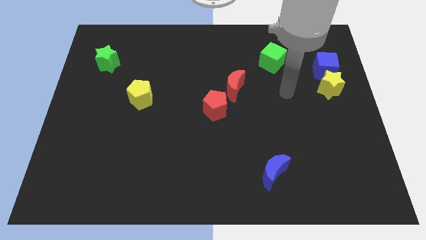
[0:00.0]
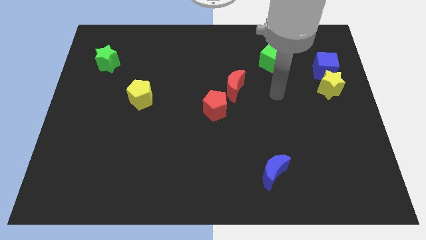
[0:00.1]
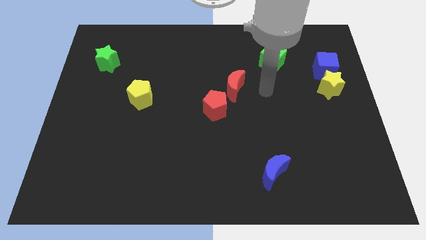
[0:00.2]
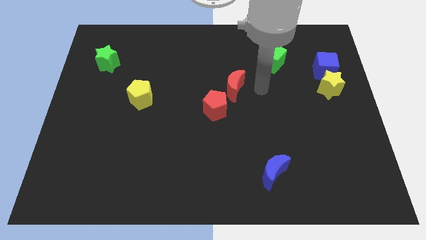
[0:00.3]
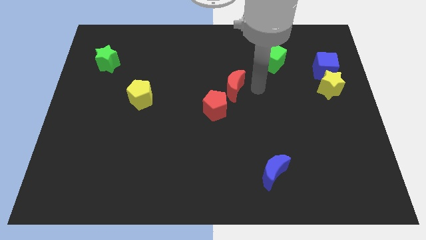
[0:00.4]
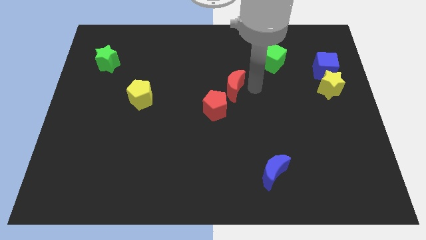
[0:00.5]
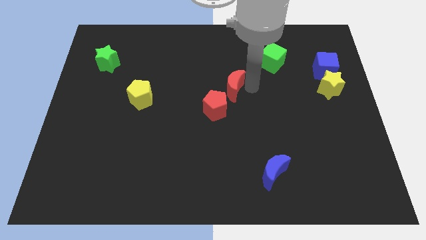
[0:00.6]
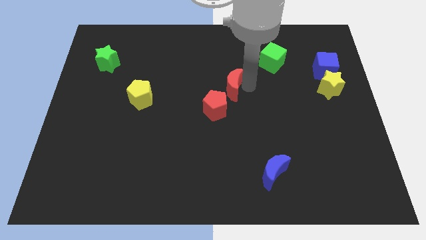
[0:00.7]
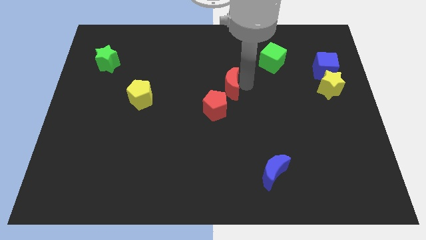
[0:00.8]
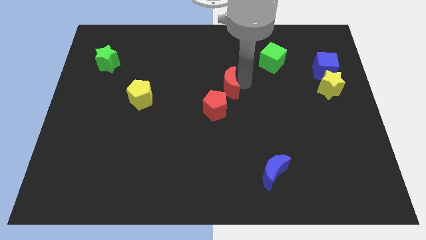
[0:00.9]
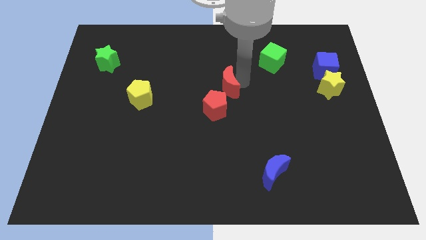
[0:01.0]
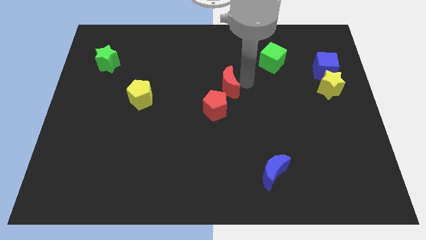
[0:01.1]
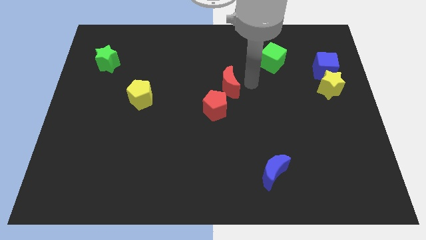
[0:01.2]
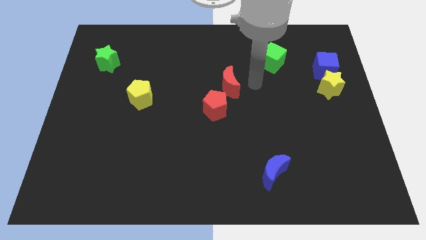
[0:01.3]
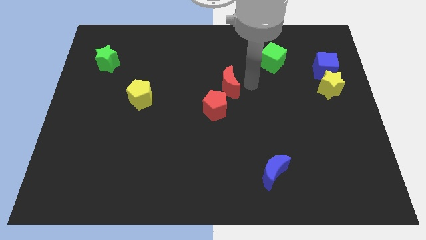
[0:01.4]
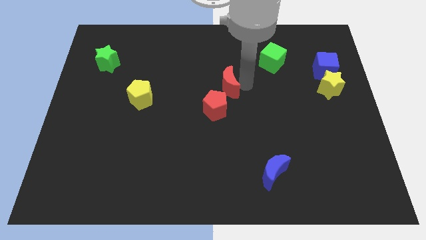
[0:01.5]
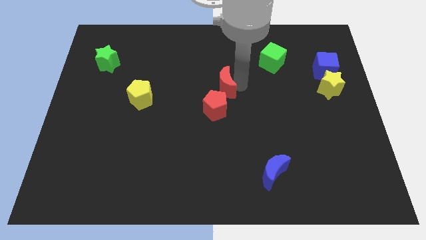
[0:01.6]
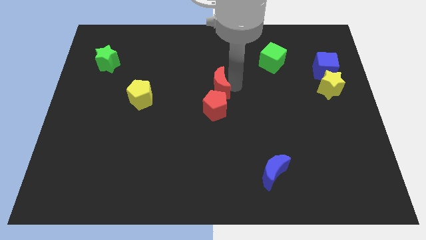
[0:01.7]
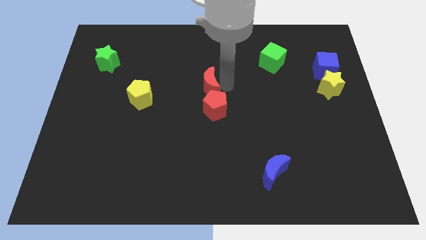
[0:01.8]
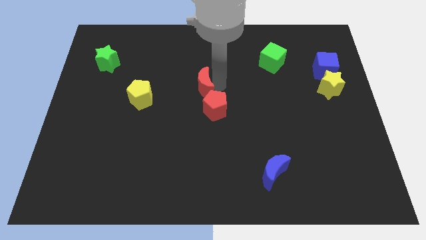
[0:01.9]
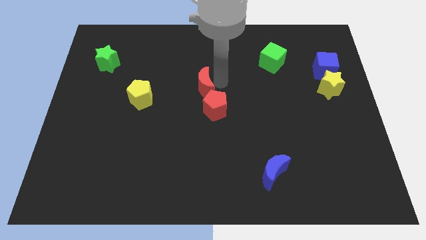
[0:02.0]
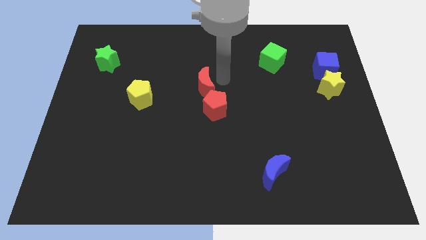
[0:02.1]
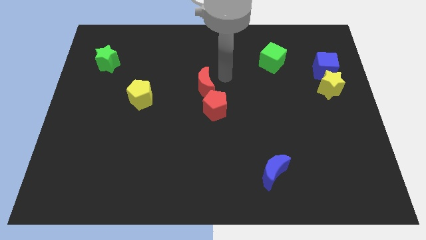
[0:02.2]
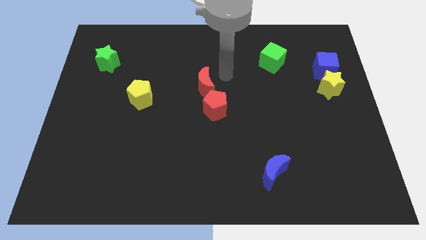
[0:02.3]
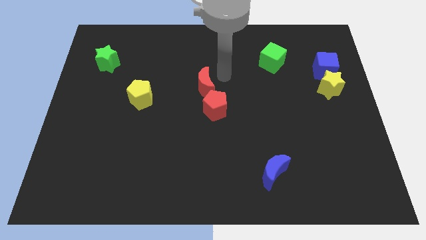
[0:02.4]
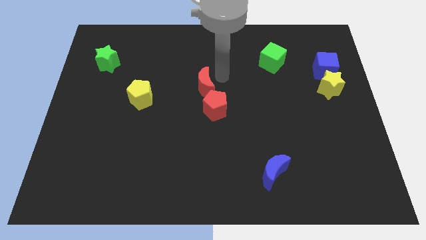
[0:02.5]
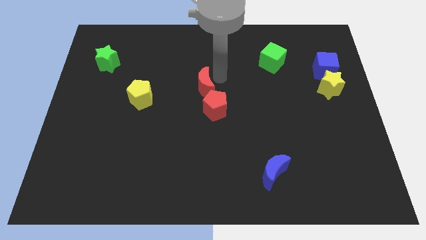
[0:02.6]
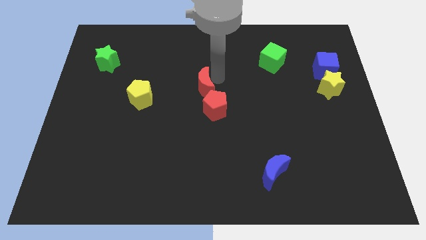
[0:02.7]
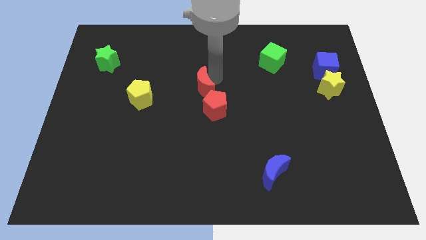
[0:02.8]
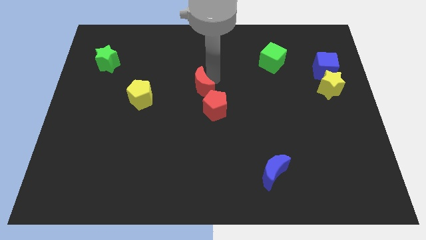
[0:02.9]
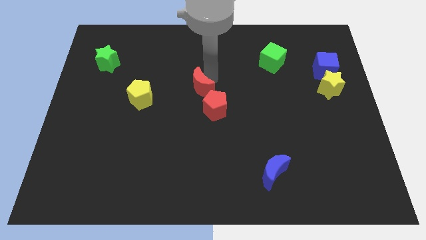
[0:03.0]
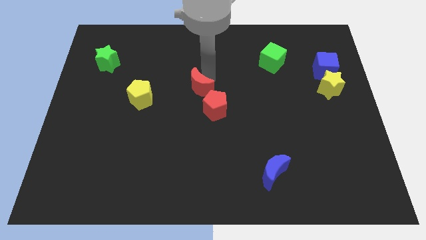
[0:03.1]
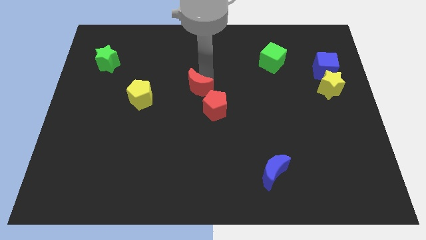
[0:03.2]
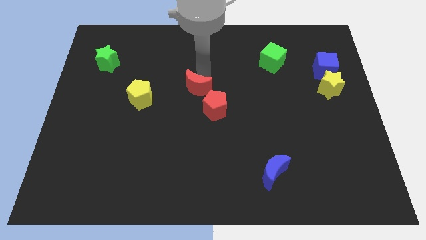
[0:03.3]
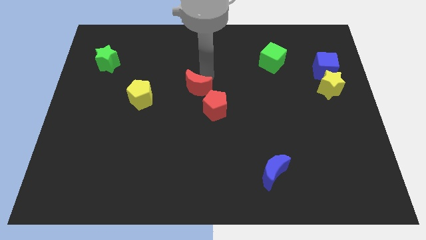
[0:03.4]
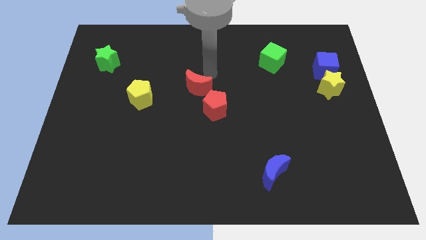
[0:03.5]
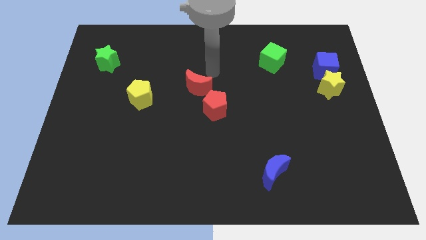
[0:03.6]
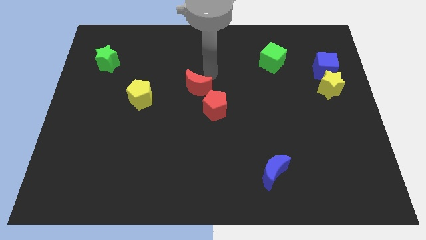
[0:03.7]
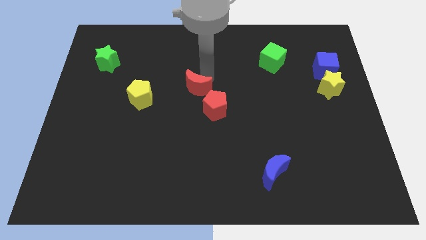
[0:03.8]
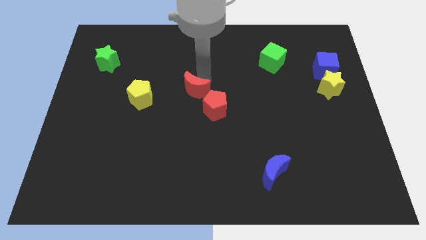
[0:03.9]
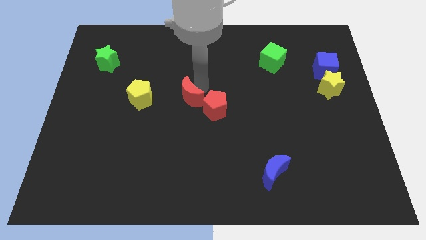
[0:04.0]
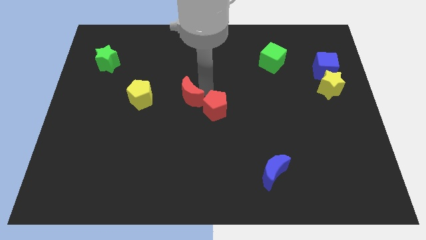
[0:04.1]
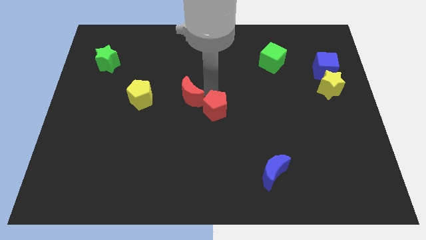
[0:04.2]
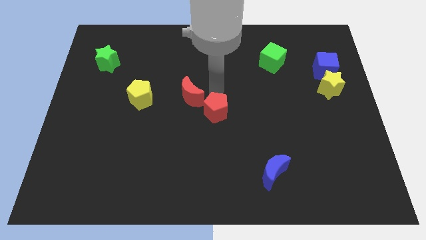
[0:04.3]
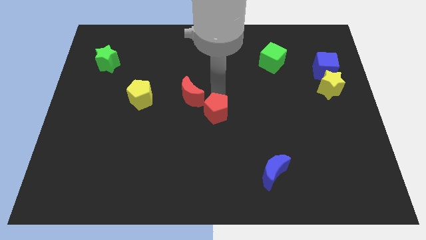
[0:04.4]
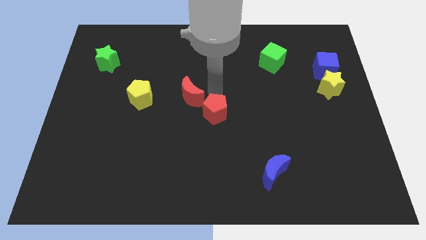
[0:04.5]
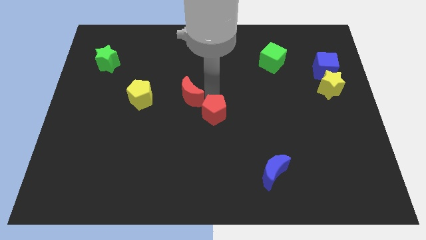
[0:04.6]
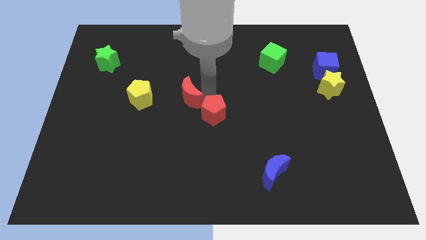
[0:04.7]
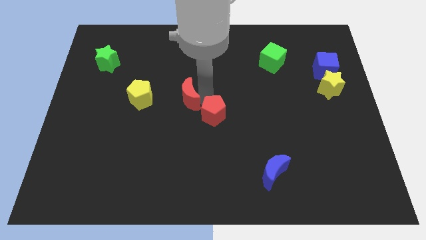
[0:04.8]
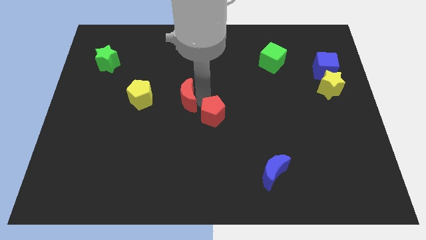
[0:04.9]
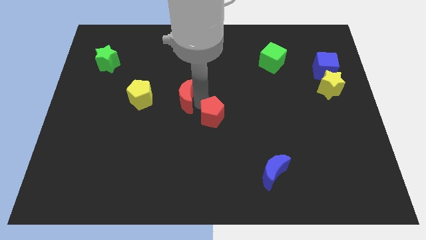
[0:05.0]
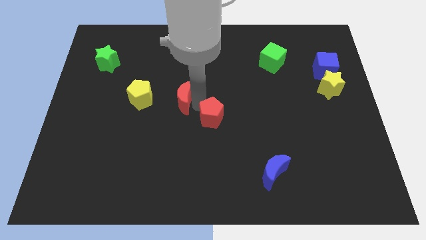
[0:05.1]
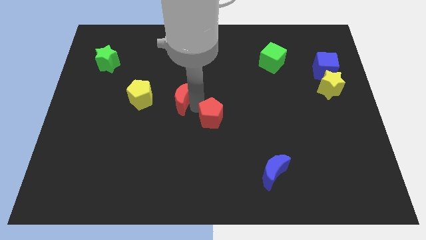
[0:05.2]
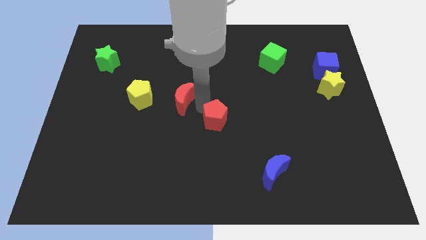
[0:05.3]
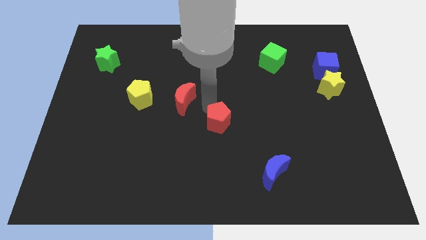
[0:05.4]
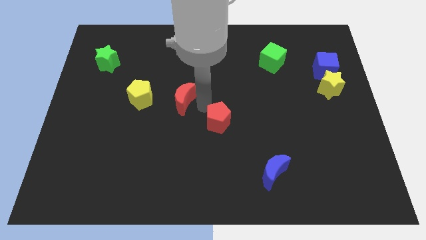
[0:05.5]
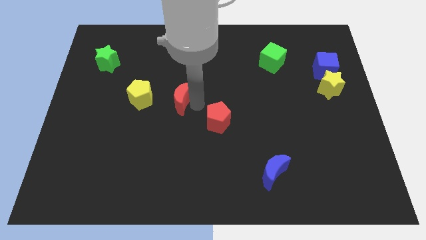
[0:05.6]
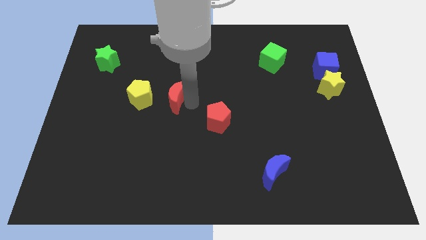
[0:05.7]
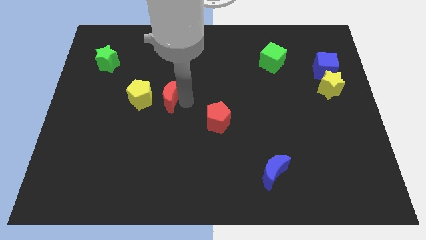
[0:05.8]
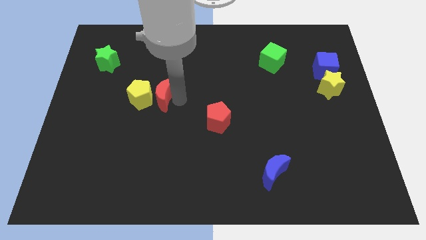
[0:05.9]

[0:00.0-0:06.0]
put the red moon to the yellow pentagon

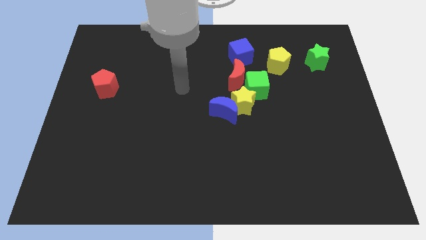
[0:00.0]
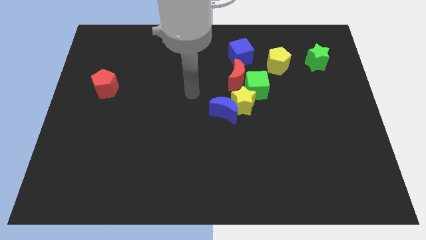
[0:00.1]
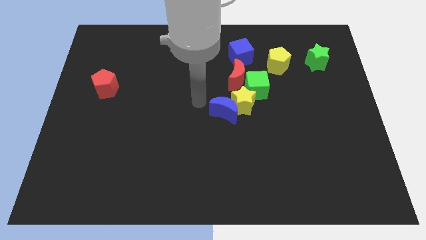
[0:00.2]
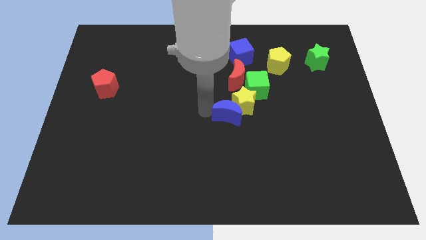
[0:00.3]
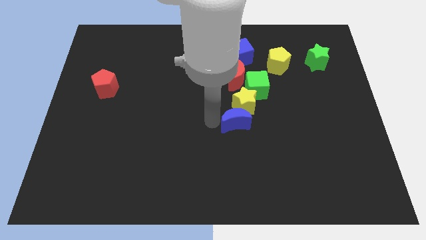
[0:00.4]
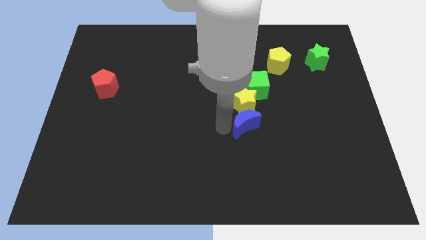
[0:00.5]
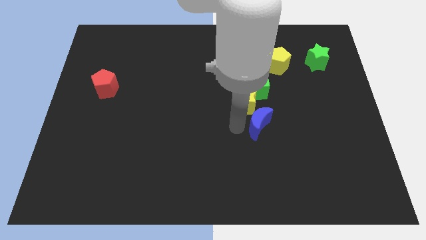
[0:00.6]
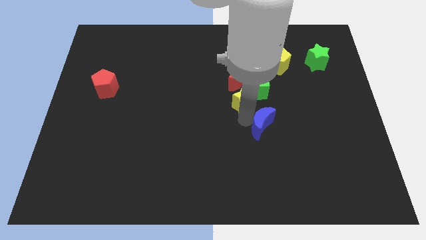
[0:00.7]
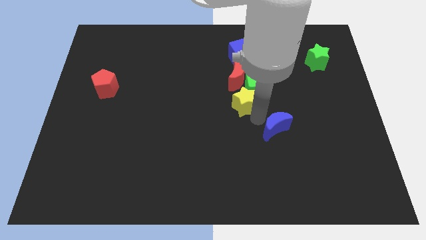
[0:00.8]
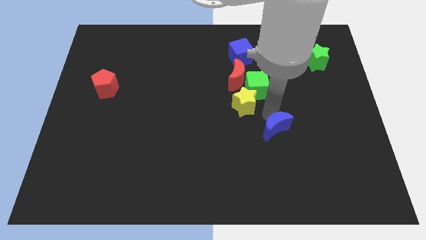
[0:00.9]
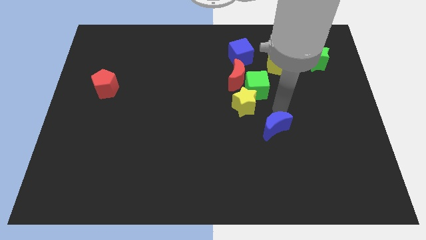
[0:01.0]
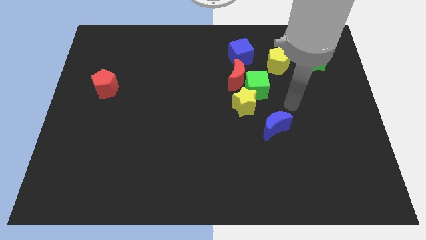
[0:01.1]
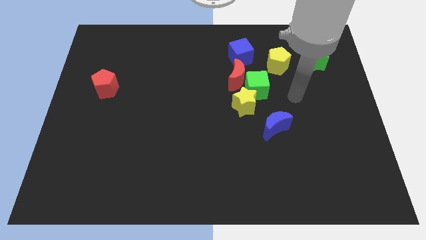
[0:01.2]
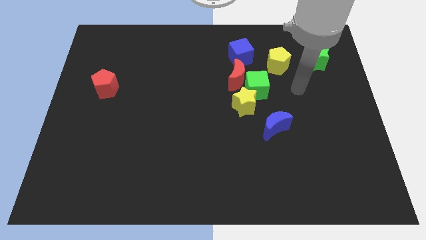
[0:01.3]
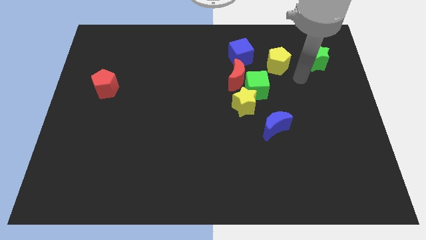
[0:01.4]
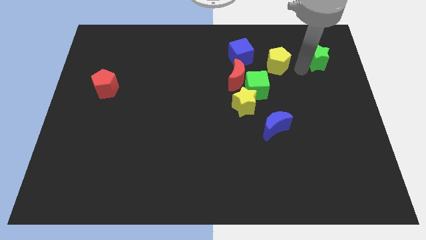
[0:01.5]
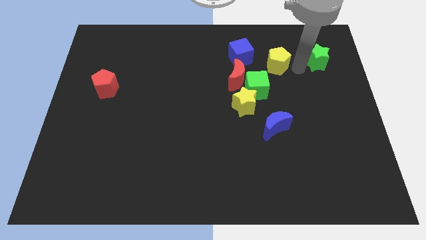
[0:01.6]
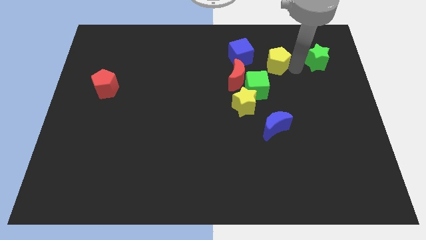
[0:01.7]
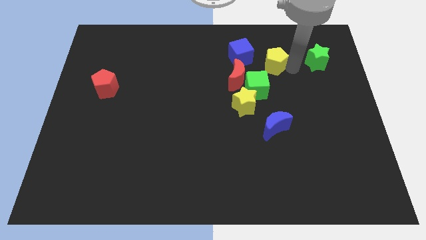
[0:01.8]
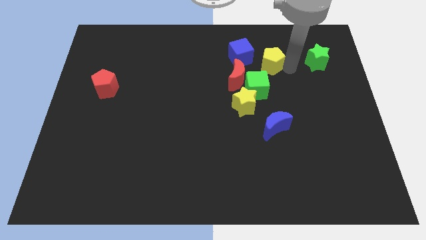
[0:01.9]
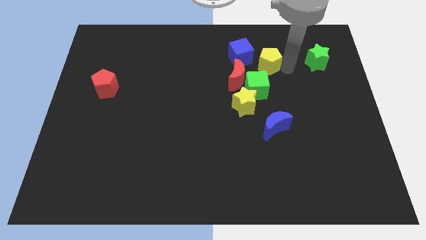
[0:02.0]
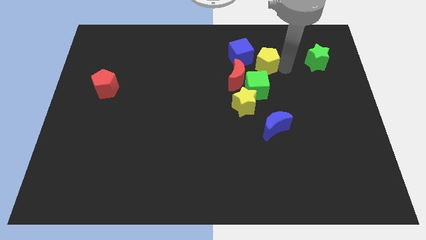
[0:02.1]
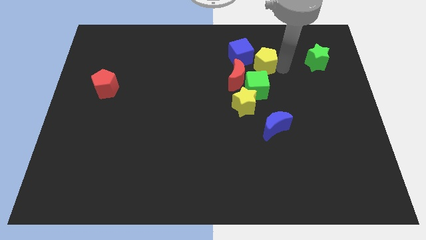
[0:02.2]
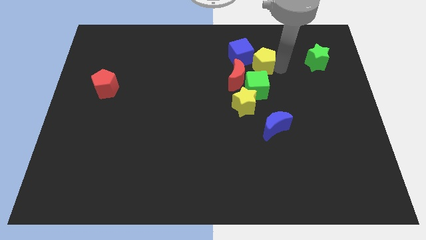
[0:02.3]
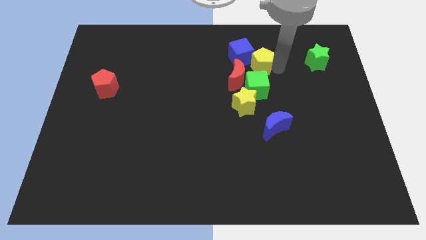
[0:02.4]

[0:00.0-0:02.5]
push the yellow pentagon next to the blue cube
